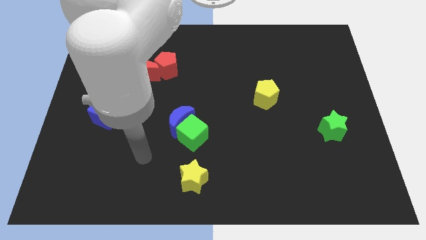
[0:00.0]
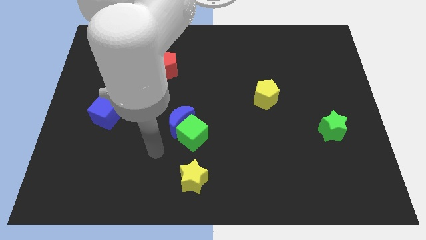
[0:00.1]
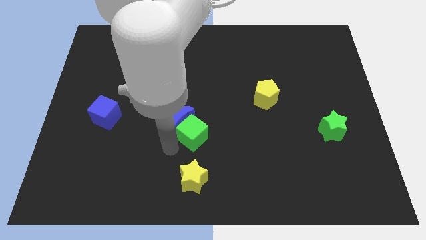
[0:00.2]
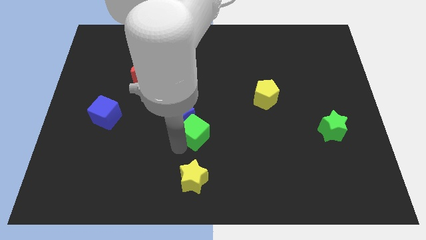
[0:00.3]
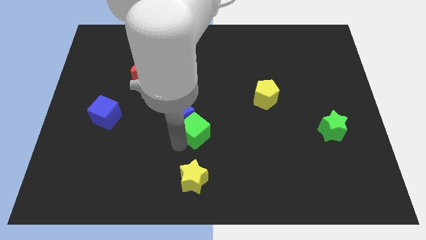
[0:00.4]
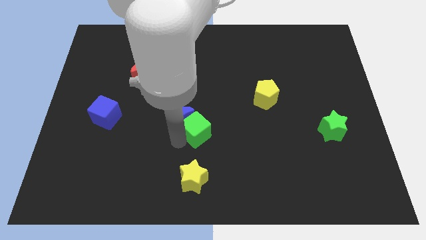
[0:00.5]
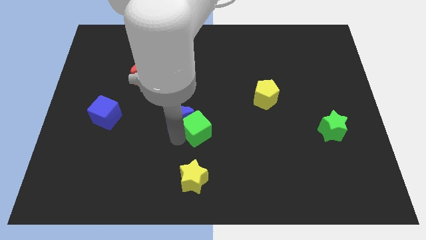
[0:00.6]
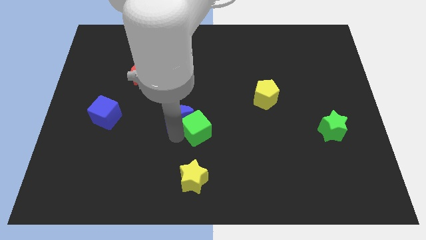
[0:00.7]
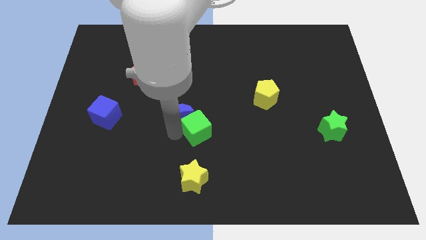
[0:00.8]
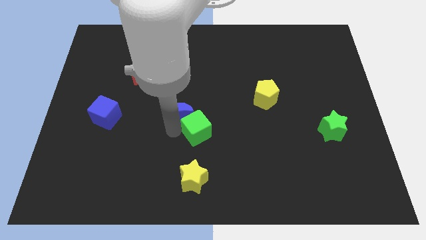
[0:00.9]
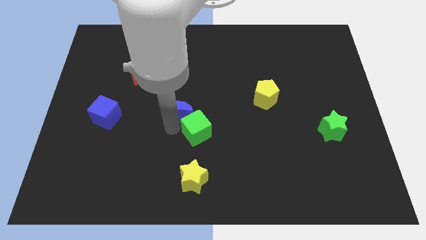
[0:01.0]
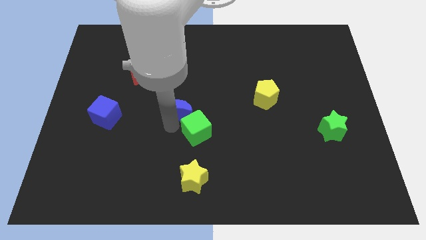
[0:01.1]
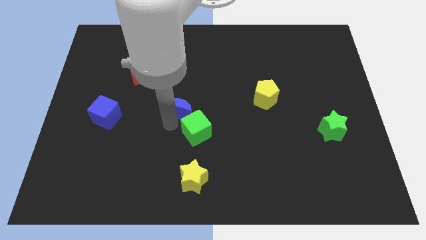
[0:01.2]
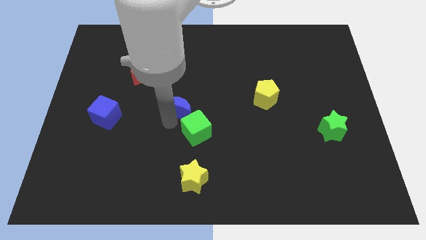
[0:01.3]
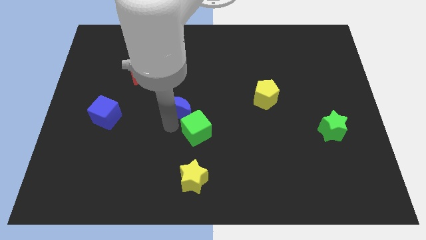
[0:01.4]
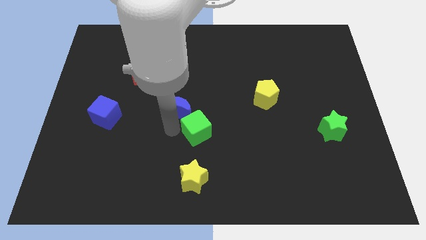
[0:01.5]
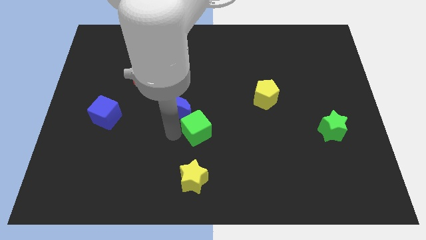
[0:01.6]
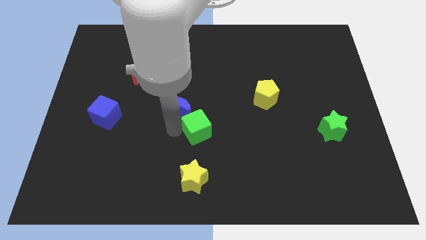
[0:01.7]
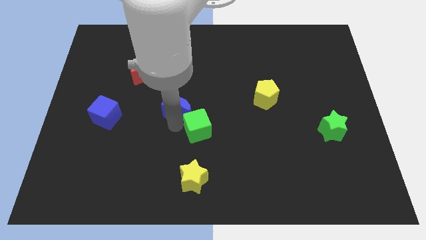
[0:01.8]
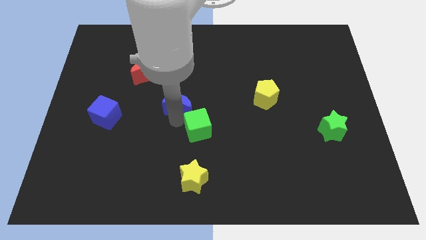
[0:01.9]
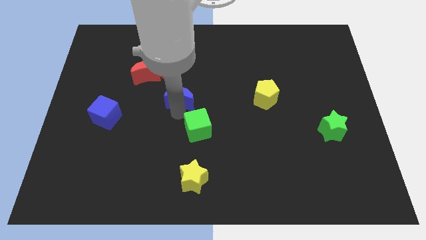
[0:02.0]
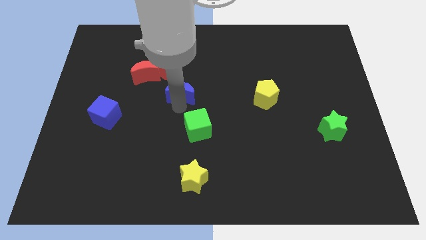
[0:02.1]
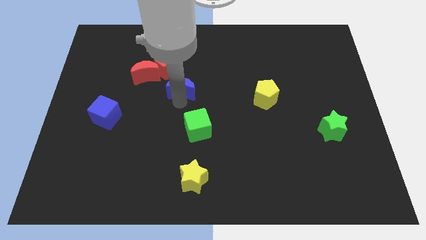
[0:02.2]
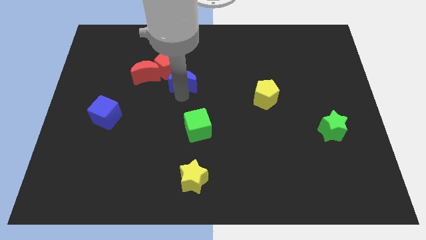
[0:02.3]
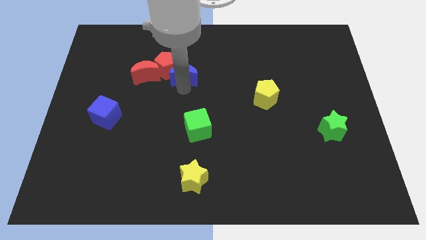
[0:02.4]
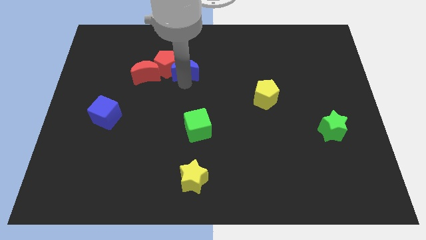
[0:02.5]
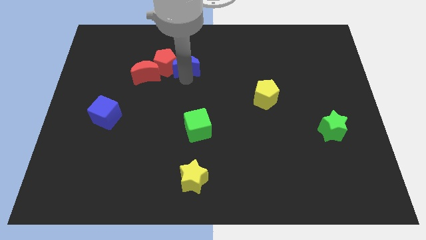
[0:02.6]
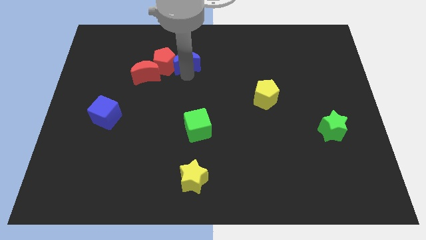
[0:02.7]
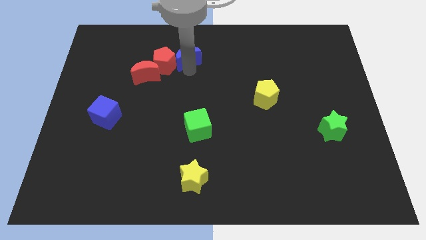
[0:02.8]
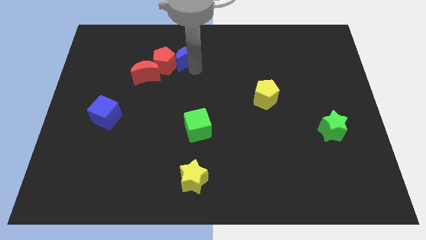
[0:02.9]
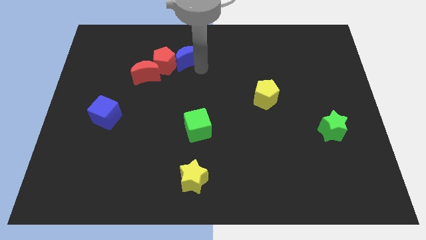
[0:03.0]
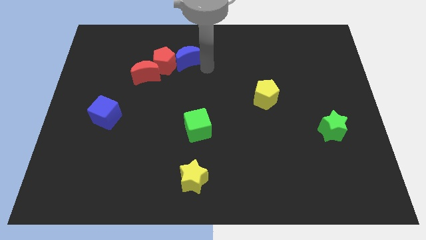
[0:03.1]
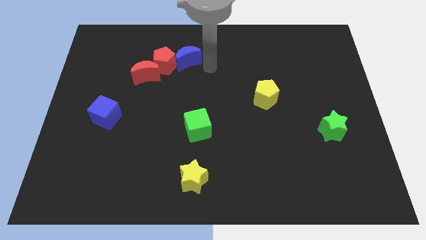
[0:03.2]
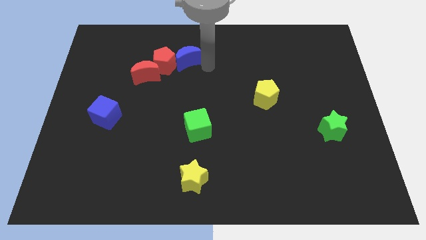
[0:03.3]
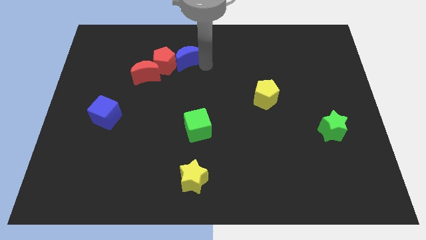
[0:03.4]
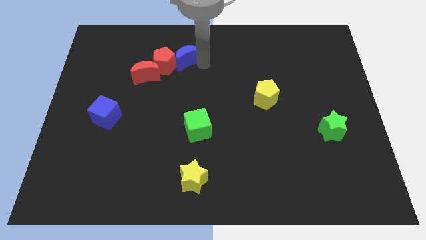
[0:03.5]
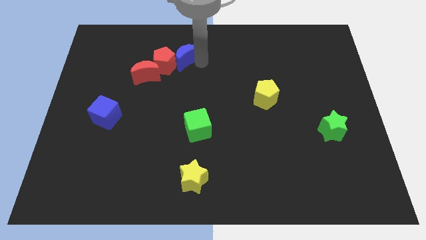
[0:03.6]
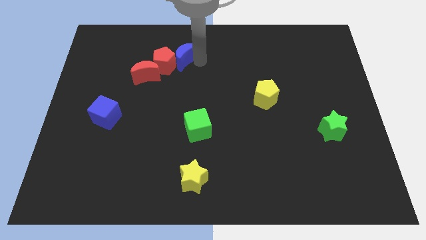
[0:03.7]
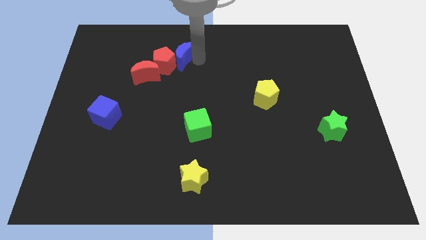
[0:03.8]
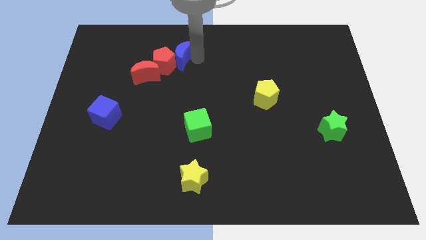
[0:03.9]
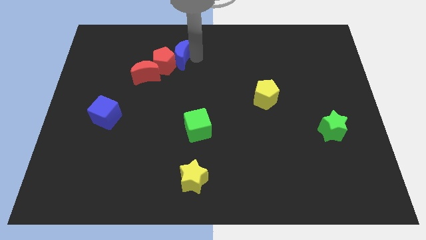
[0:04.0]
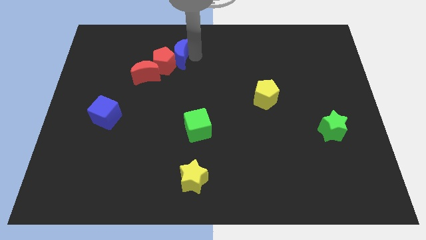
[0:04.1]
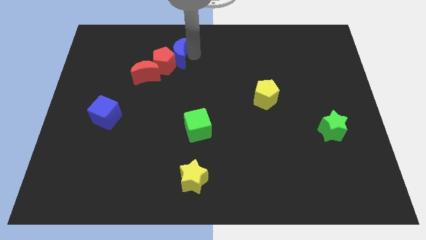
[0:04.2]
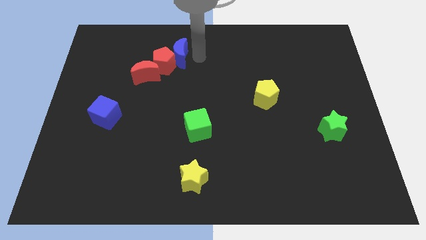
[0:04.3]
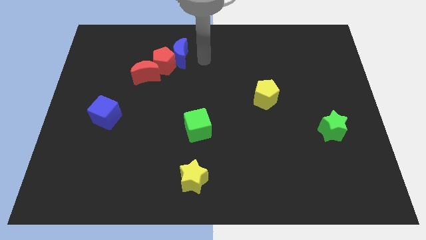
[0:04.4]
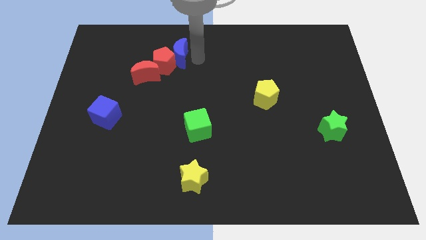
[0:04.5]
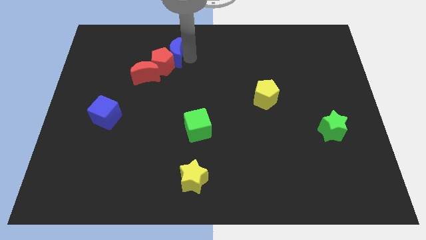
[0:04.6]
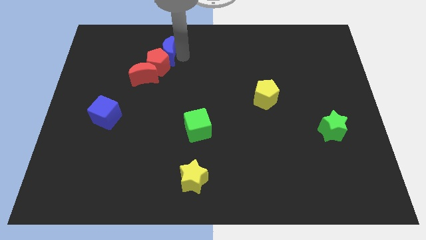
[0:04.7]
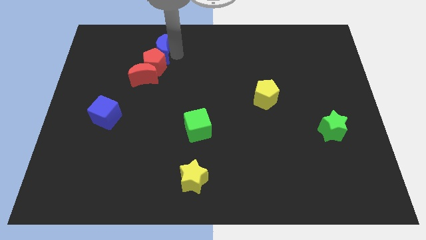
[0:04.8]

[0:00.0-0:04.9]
push the blue moon to the top left of the red pentagon

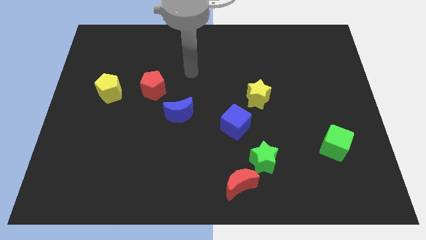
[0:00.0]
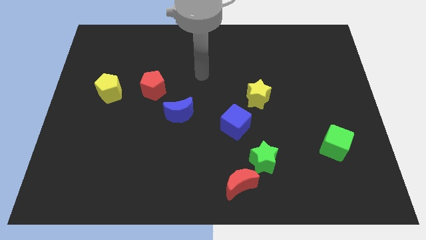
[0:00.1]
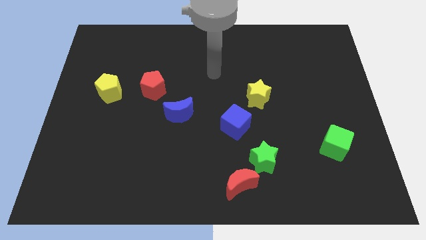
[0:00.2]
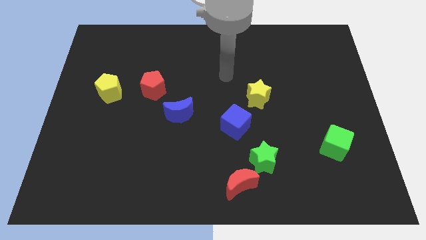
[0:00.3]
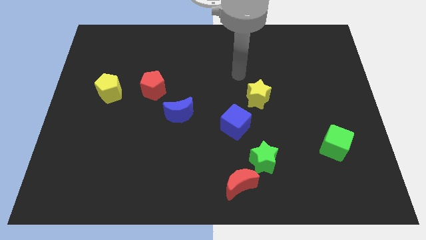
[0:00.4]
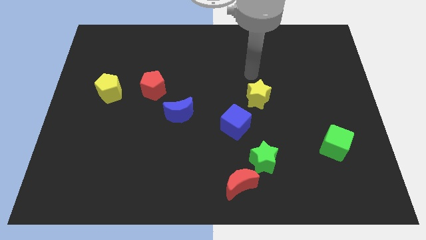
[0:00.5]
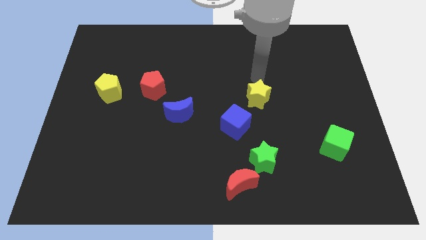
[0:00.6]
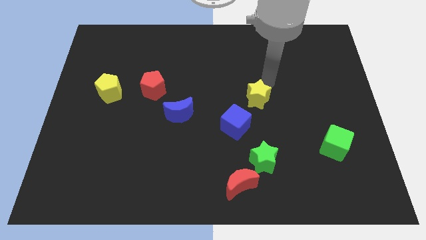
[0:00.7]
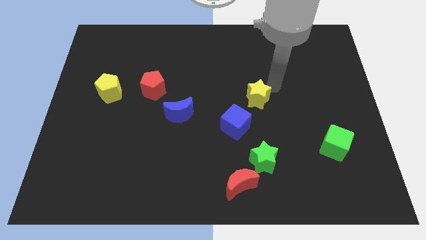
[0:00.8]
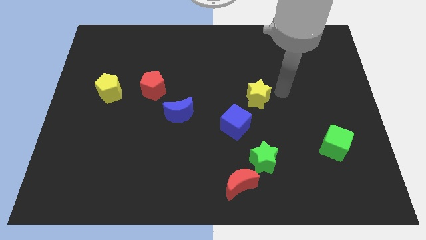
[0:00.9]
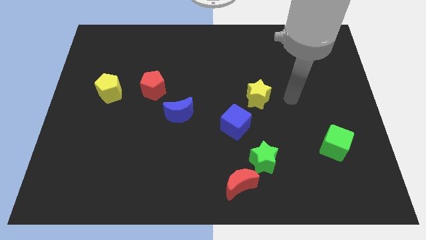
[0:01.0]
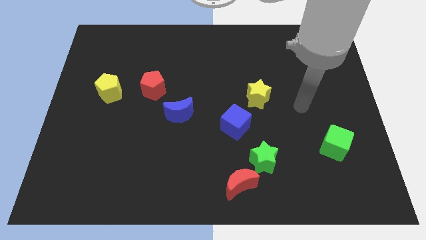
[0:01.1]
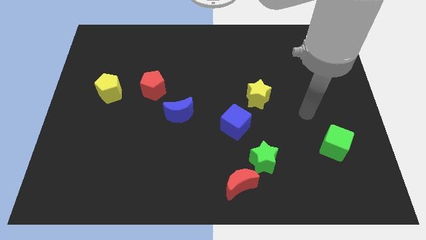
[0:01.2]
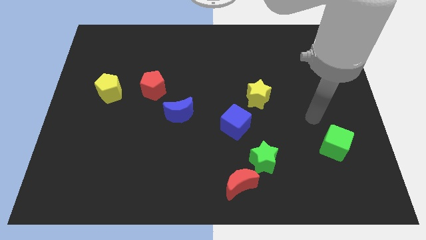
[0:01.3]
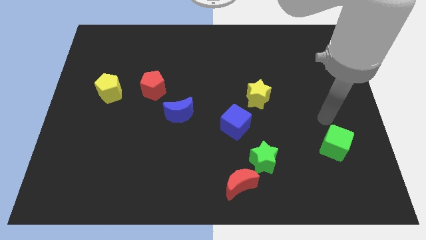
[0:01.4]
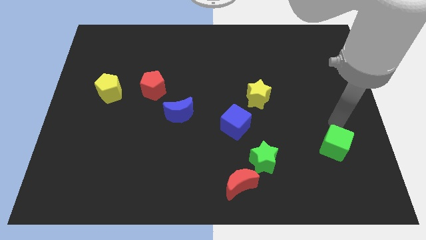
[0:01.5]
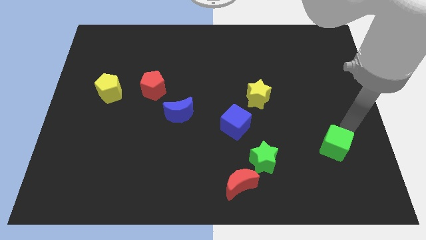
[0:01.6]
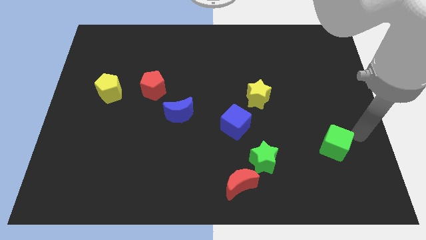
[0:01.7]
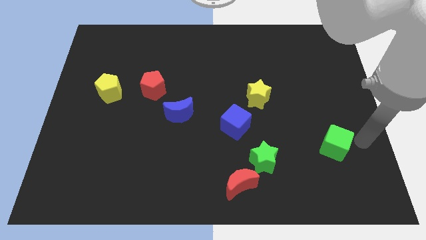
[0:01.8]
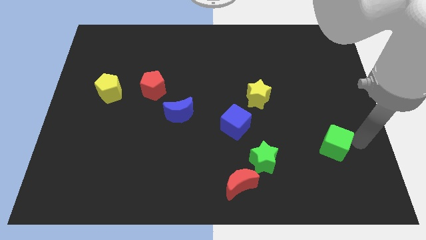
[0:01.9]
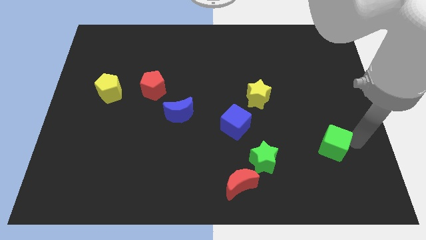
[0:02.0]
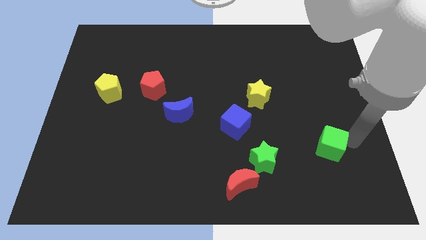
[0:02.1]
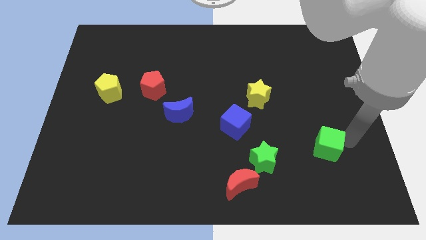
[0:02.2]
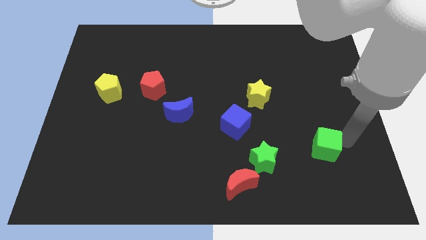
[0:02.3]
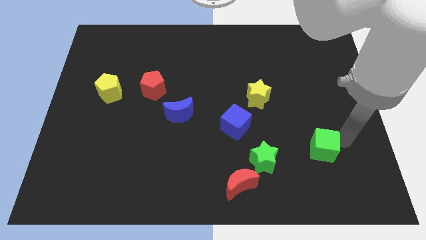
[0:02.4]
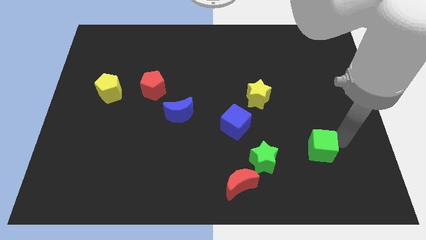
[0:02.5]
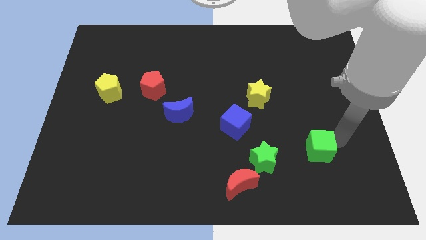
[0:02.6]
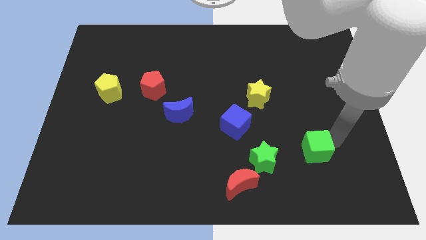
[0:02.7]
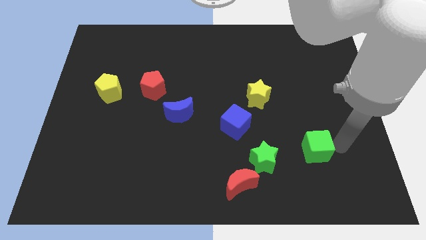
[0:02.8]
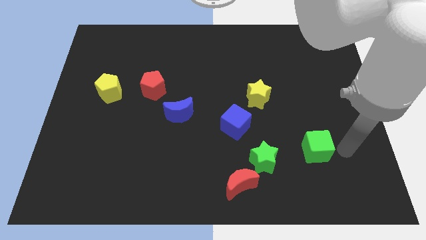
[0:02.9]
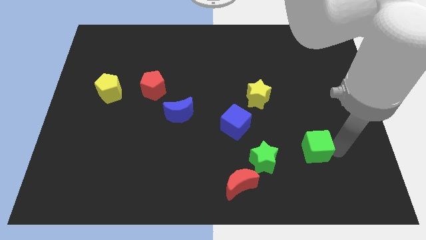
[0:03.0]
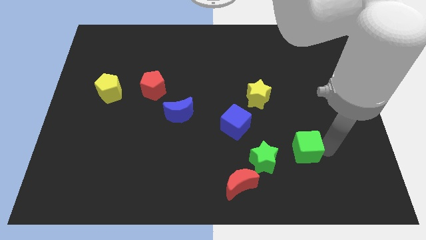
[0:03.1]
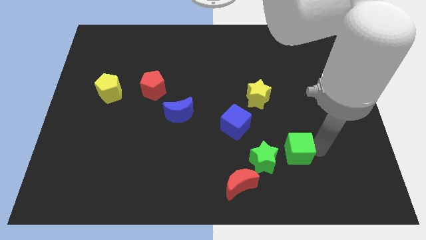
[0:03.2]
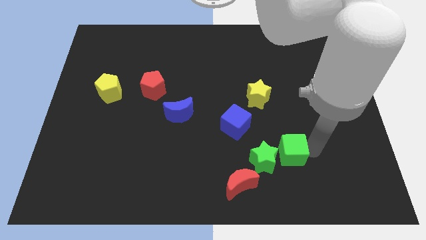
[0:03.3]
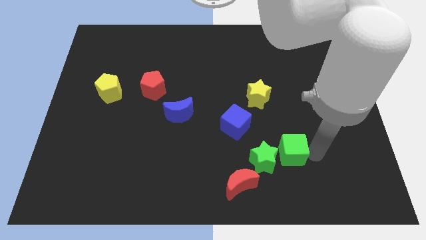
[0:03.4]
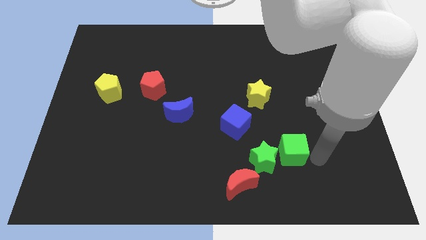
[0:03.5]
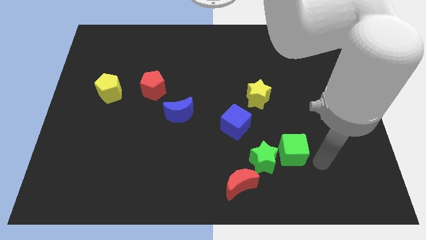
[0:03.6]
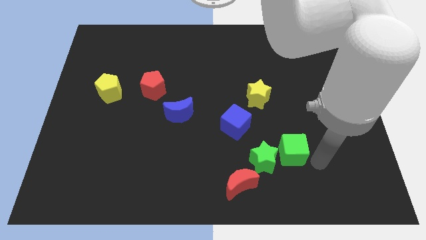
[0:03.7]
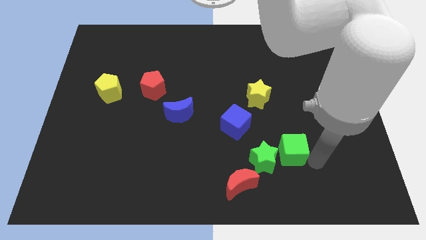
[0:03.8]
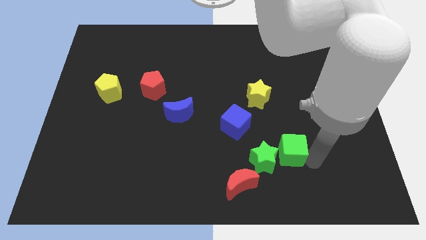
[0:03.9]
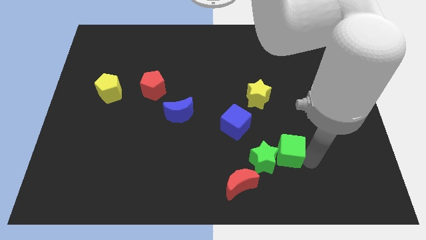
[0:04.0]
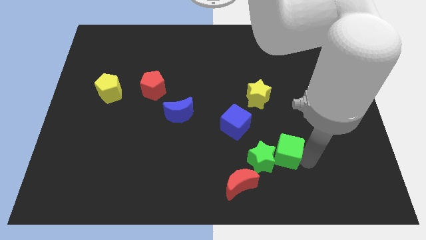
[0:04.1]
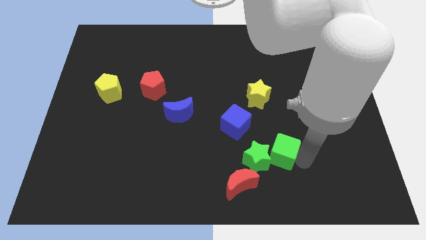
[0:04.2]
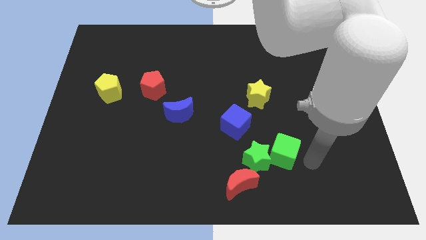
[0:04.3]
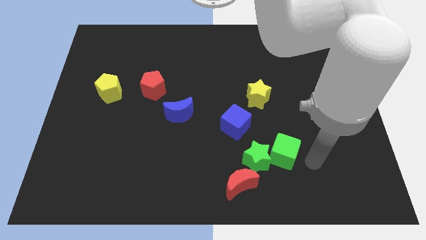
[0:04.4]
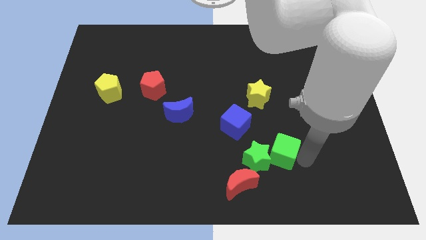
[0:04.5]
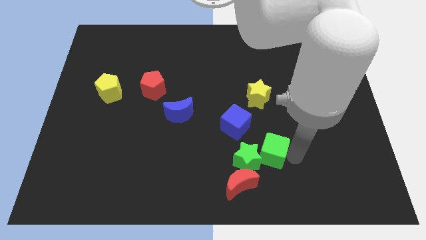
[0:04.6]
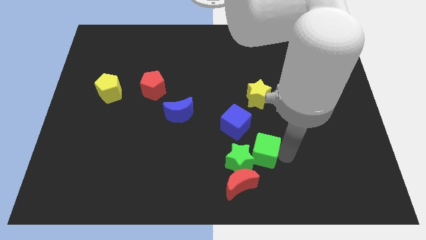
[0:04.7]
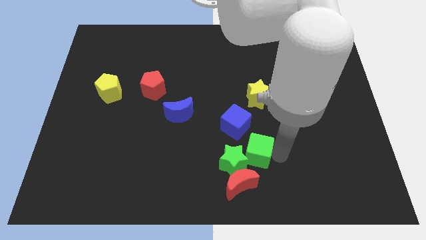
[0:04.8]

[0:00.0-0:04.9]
push the green cube below the blue cube
